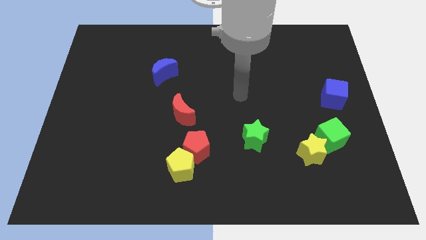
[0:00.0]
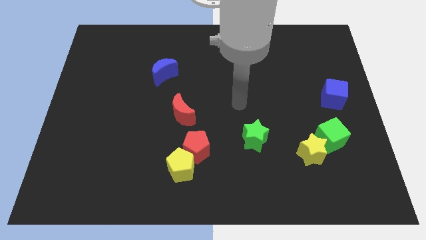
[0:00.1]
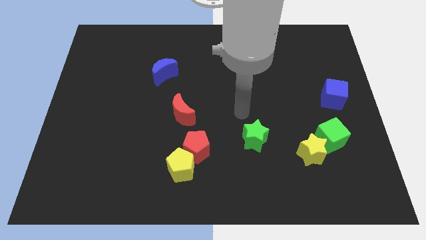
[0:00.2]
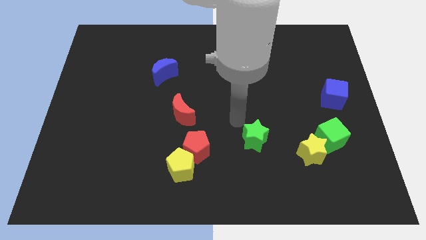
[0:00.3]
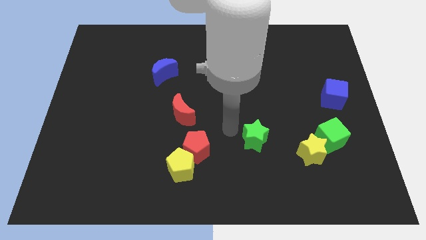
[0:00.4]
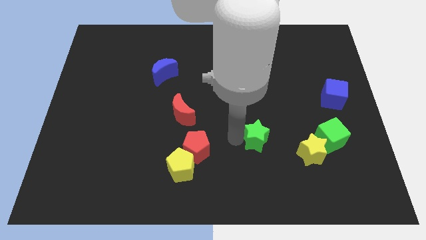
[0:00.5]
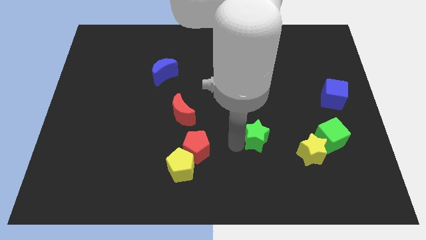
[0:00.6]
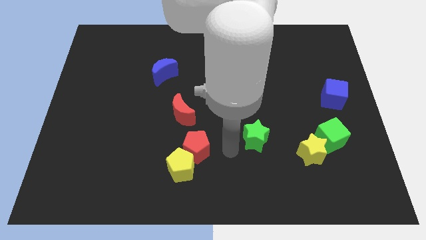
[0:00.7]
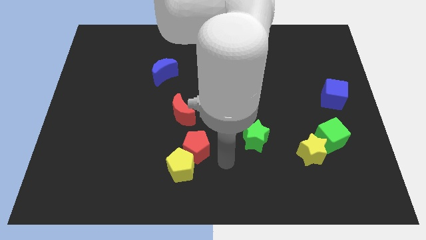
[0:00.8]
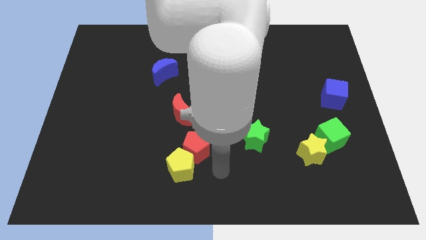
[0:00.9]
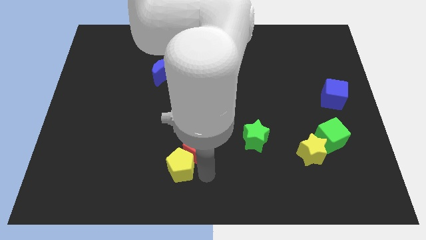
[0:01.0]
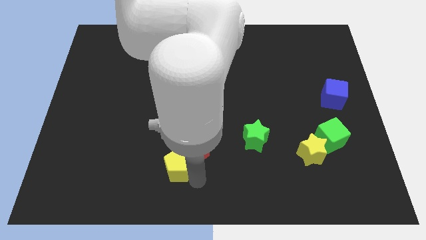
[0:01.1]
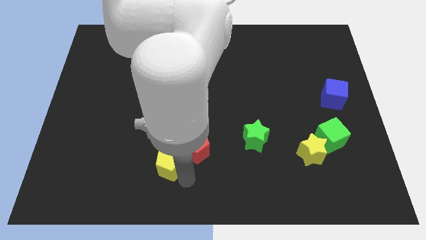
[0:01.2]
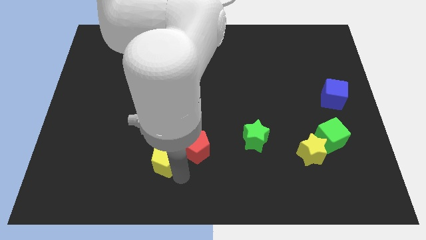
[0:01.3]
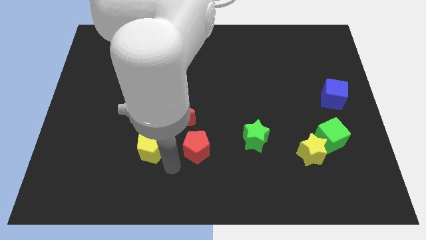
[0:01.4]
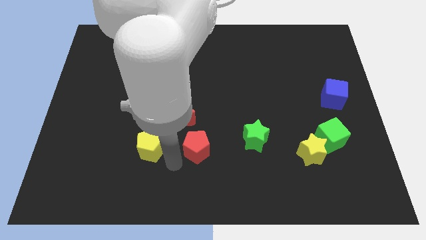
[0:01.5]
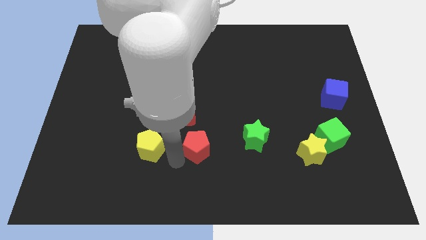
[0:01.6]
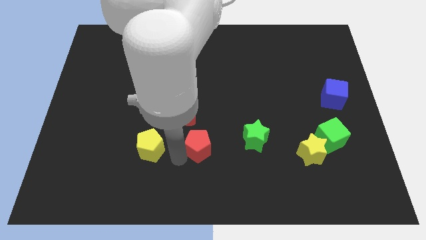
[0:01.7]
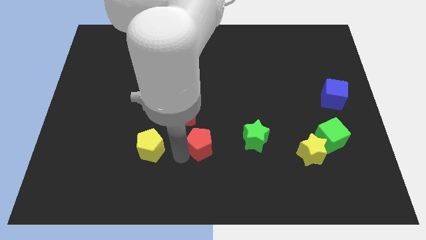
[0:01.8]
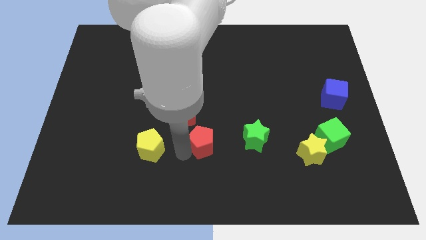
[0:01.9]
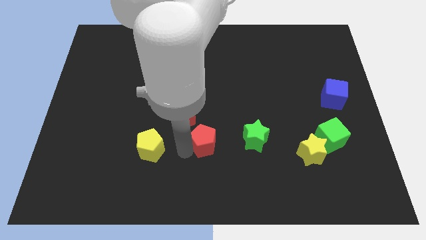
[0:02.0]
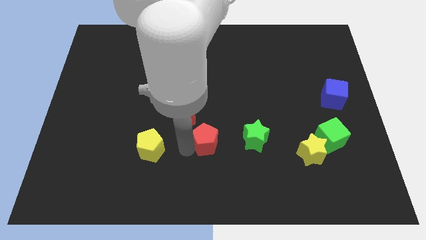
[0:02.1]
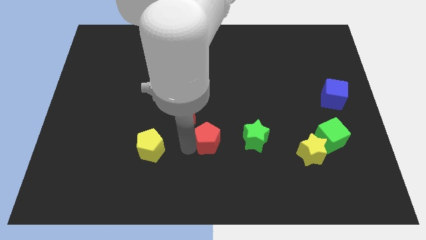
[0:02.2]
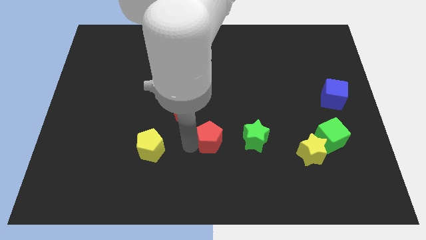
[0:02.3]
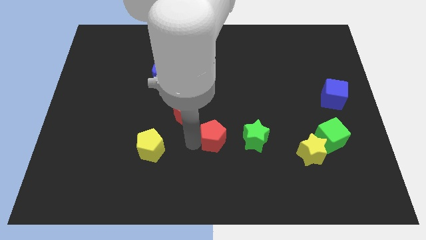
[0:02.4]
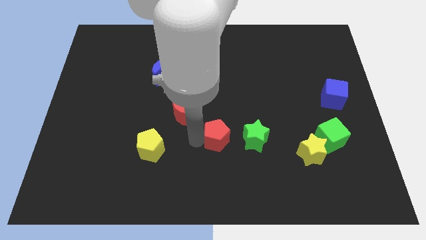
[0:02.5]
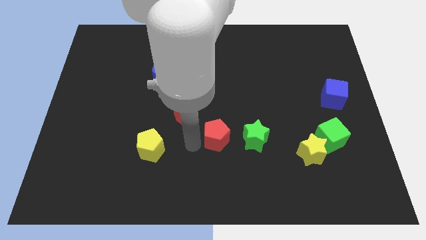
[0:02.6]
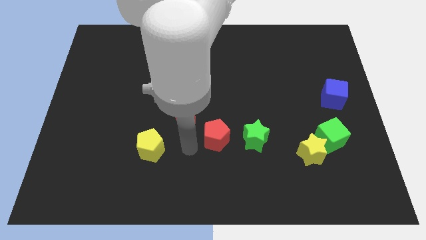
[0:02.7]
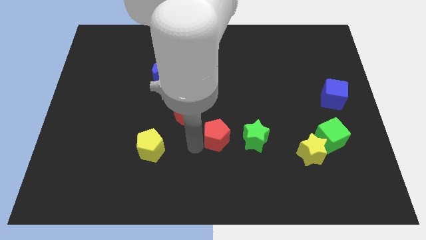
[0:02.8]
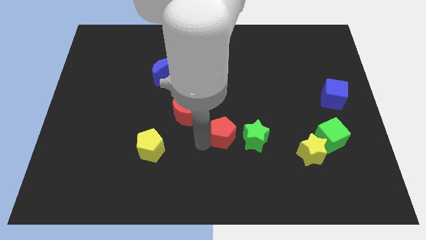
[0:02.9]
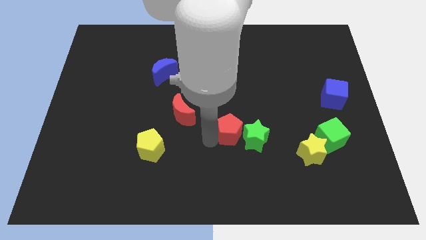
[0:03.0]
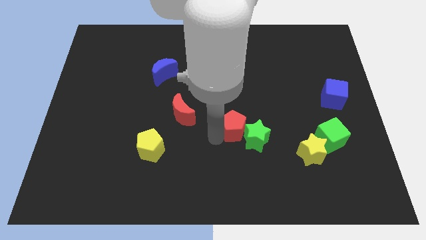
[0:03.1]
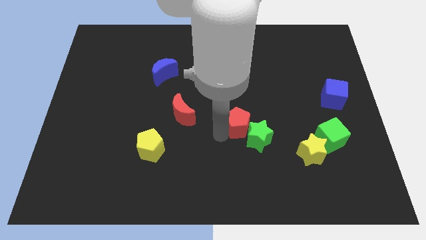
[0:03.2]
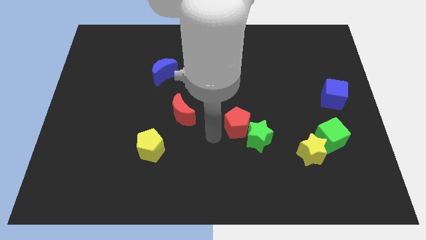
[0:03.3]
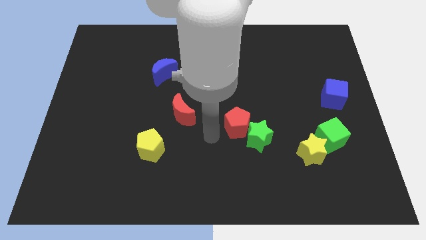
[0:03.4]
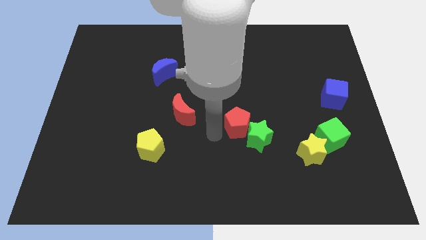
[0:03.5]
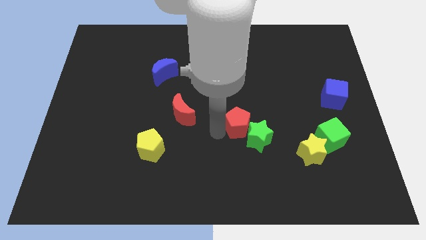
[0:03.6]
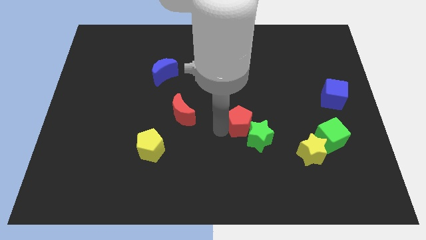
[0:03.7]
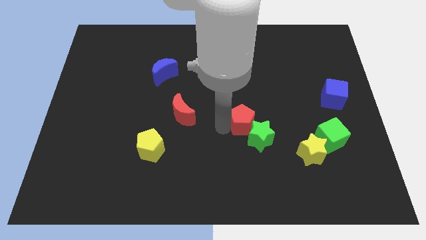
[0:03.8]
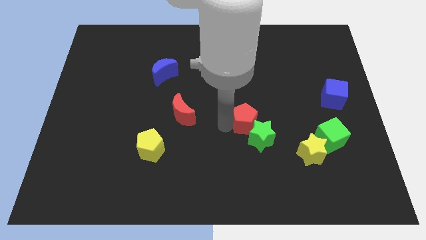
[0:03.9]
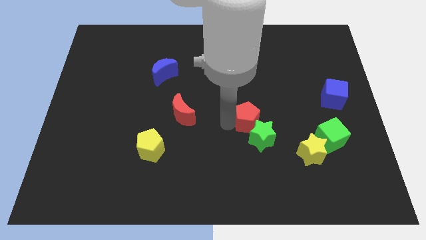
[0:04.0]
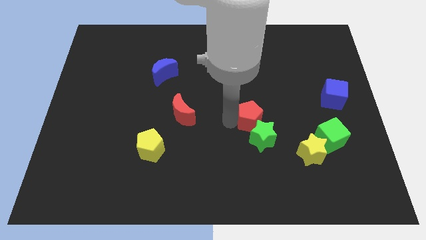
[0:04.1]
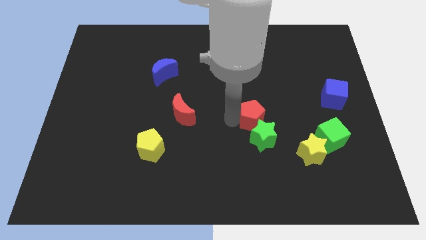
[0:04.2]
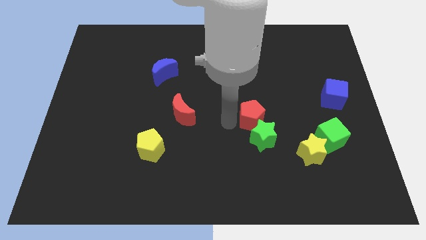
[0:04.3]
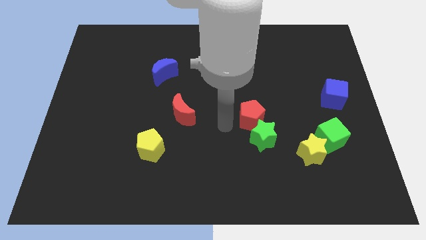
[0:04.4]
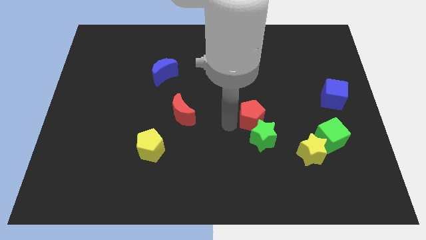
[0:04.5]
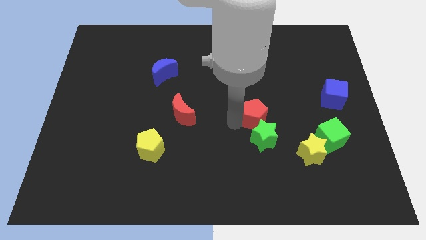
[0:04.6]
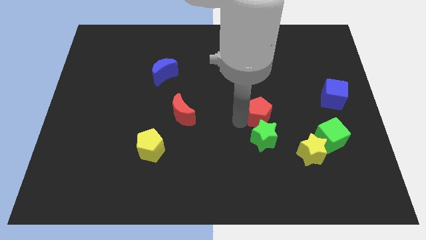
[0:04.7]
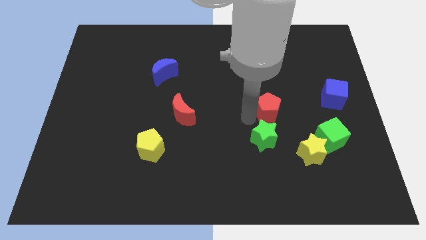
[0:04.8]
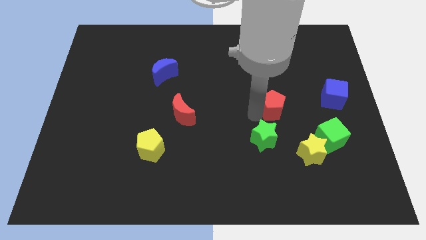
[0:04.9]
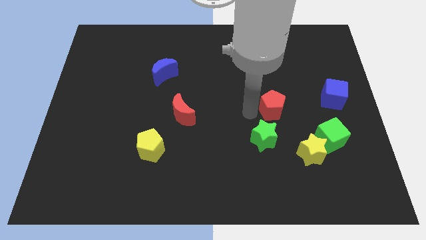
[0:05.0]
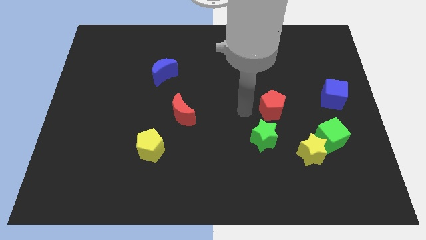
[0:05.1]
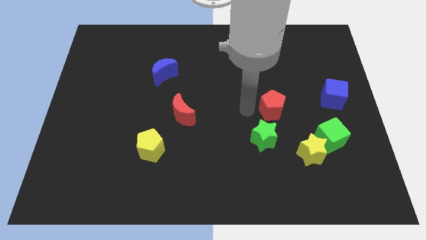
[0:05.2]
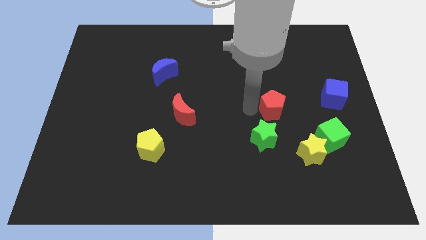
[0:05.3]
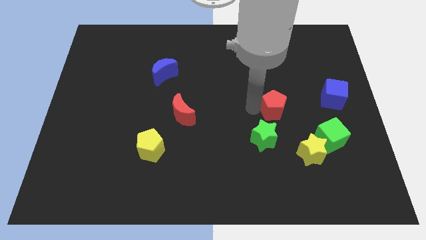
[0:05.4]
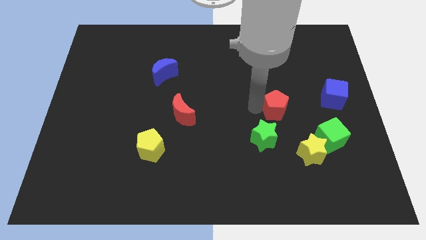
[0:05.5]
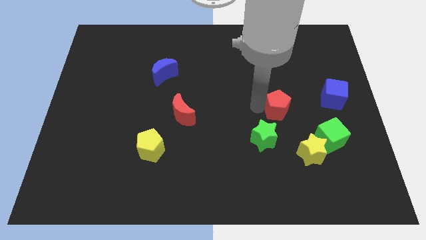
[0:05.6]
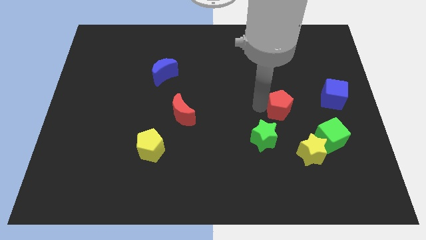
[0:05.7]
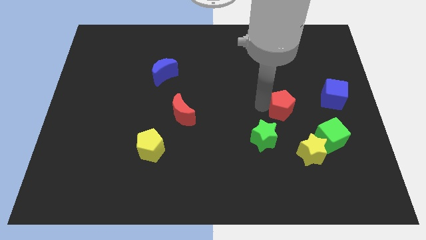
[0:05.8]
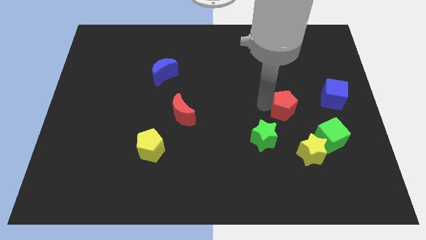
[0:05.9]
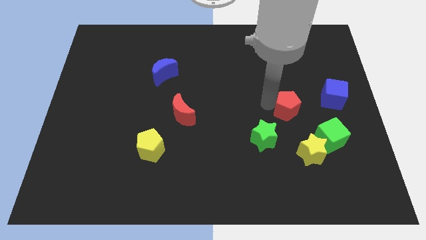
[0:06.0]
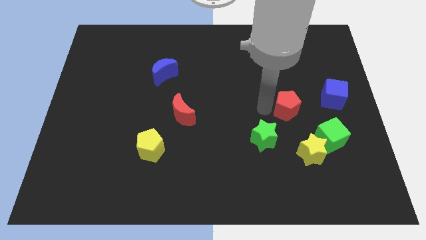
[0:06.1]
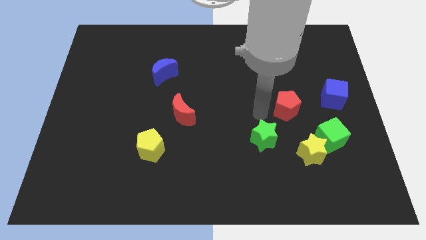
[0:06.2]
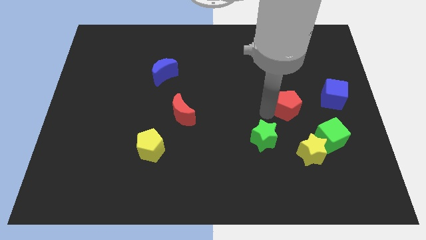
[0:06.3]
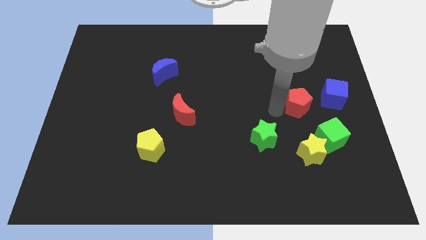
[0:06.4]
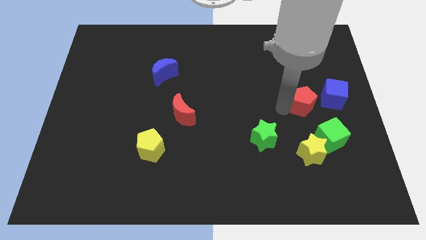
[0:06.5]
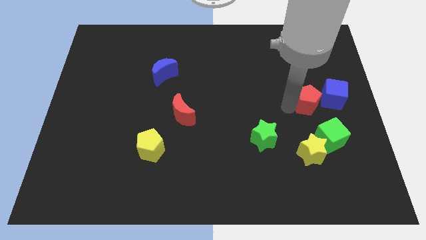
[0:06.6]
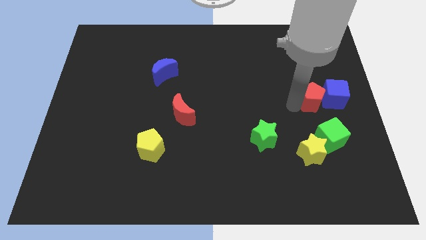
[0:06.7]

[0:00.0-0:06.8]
move the red pentagon to the blue cube

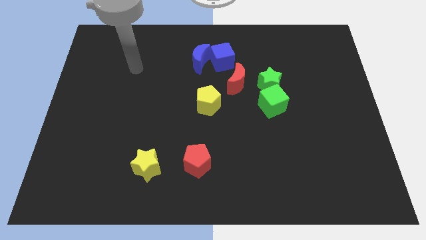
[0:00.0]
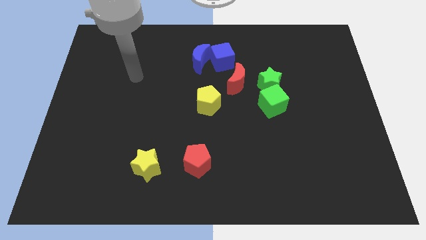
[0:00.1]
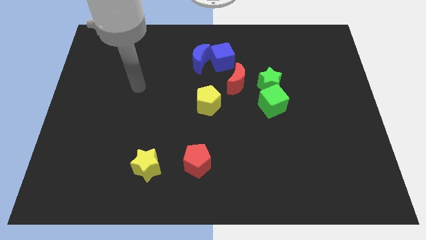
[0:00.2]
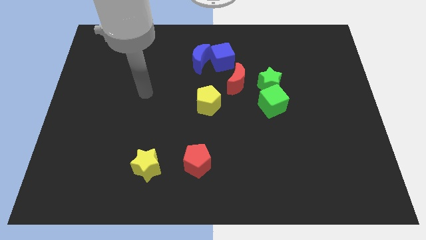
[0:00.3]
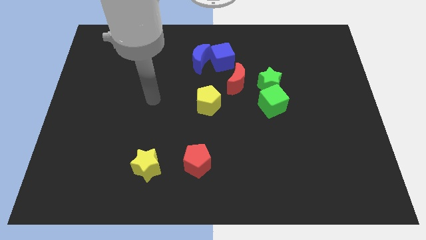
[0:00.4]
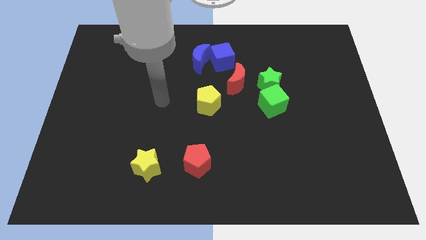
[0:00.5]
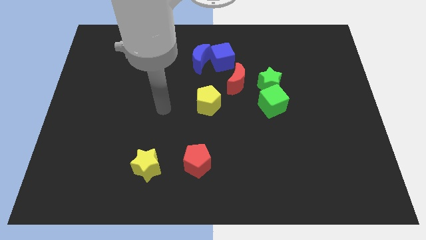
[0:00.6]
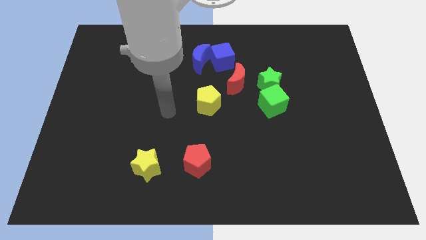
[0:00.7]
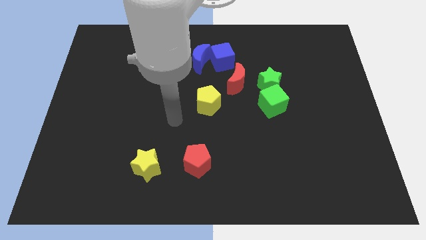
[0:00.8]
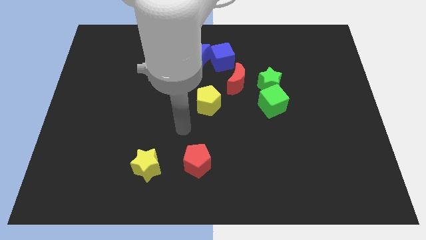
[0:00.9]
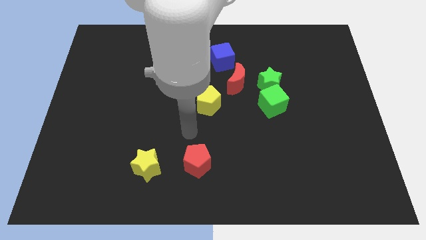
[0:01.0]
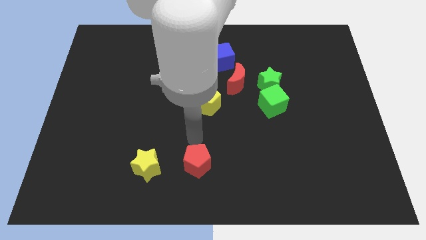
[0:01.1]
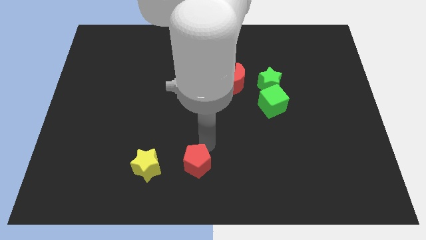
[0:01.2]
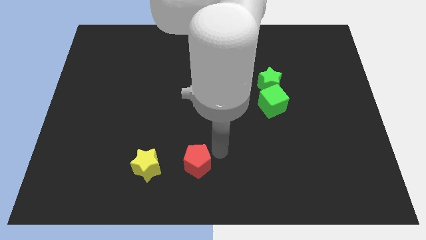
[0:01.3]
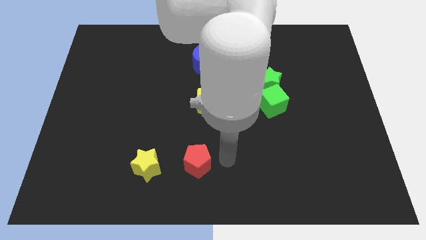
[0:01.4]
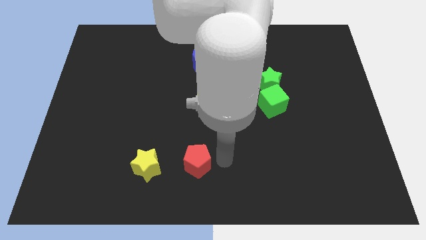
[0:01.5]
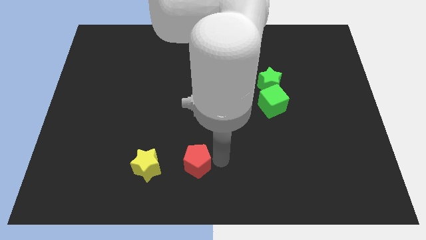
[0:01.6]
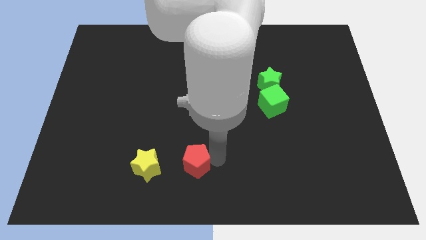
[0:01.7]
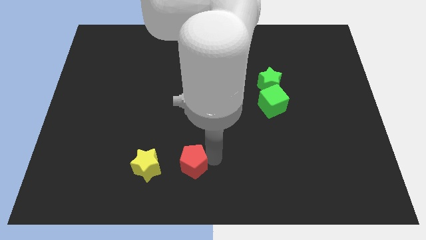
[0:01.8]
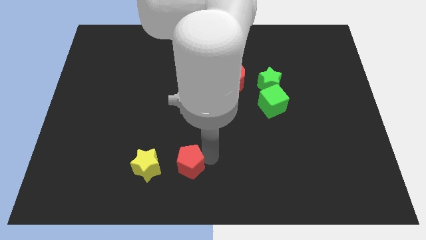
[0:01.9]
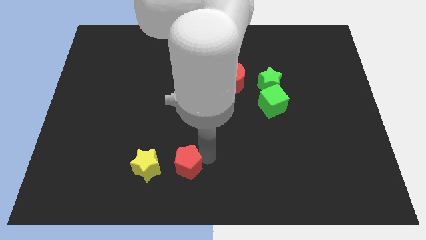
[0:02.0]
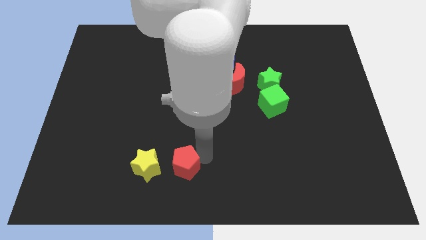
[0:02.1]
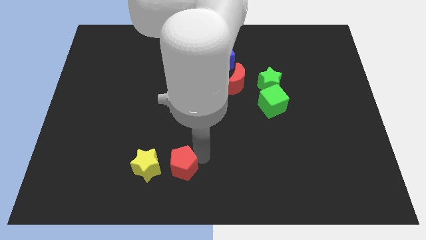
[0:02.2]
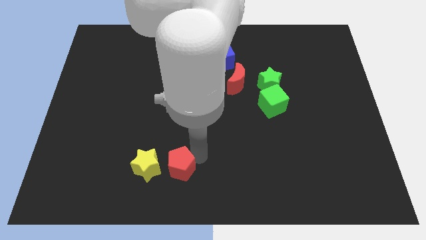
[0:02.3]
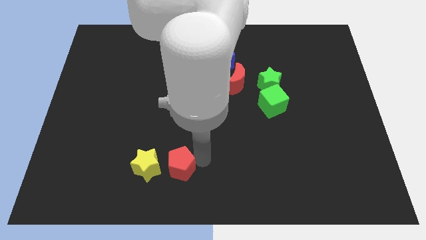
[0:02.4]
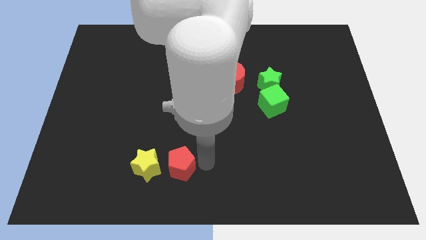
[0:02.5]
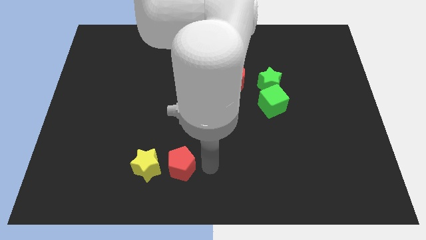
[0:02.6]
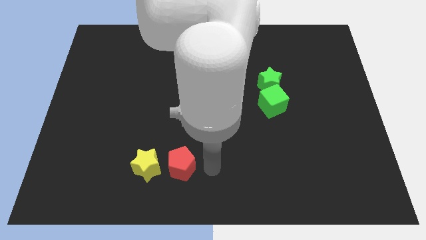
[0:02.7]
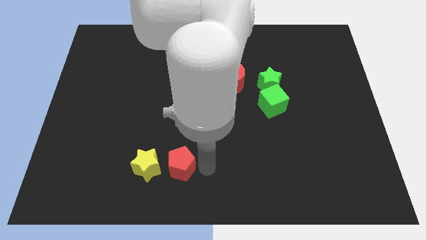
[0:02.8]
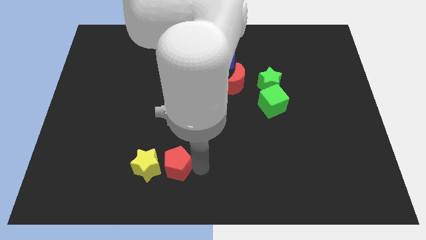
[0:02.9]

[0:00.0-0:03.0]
slide the red pentagon to the yellow star
